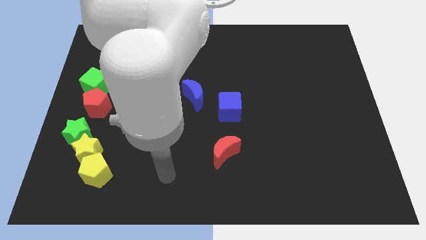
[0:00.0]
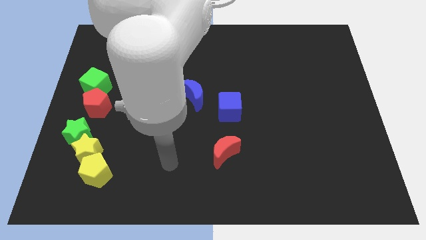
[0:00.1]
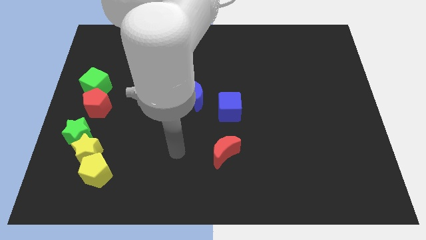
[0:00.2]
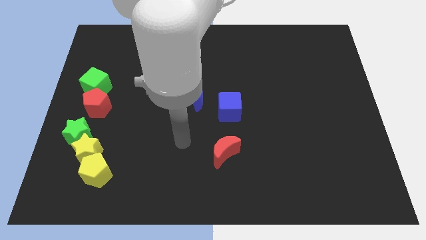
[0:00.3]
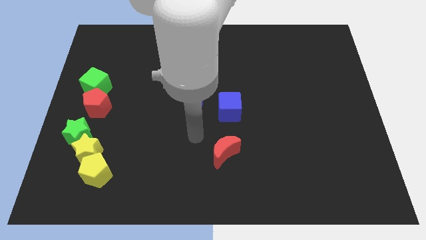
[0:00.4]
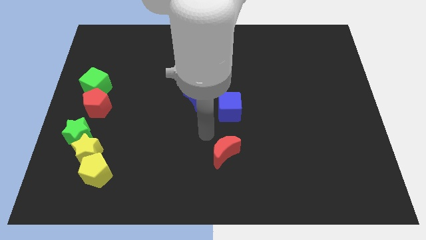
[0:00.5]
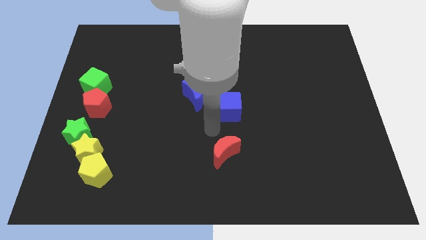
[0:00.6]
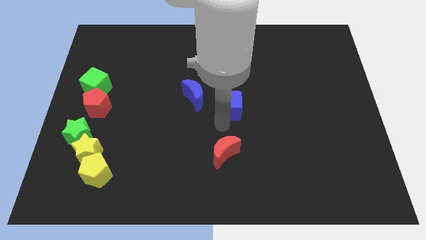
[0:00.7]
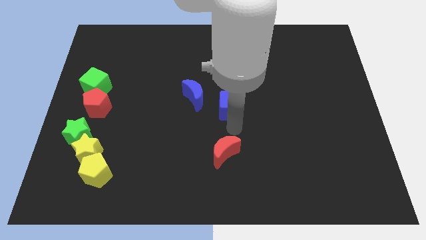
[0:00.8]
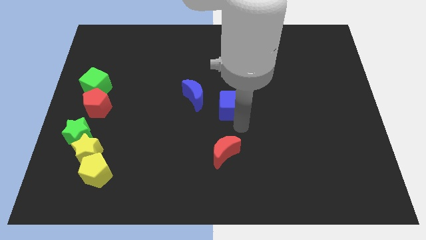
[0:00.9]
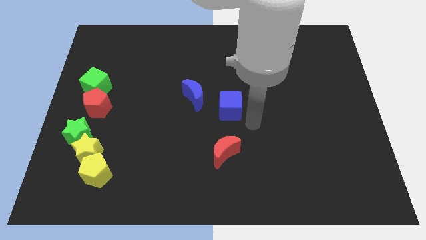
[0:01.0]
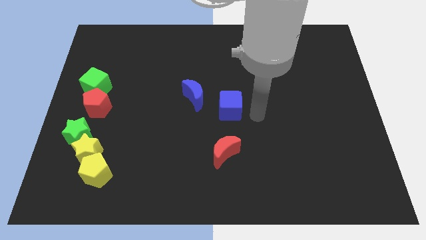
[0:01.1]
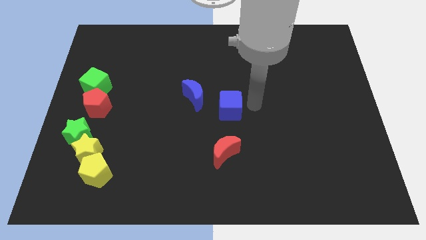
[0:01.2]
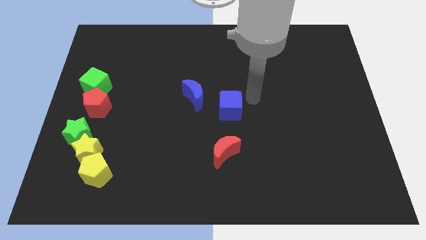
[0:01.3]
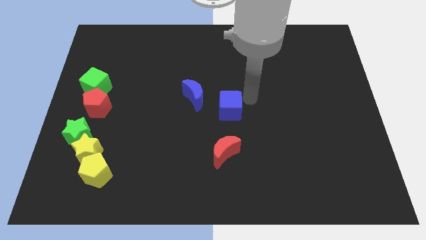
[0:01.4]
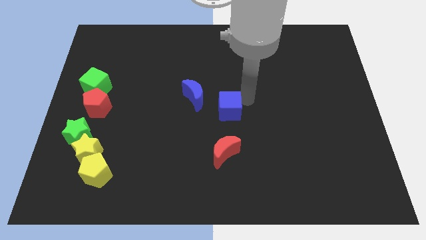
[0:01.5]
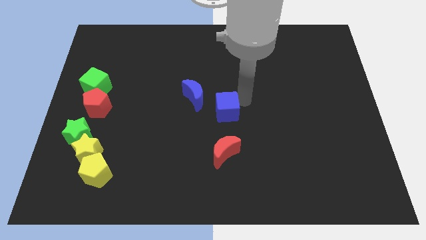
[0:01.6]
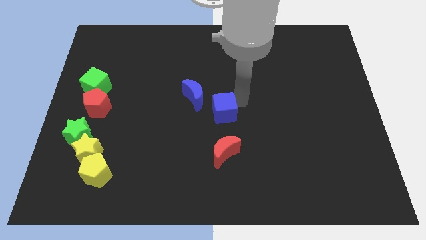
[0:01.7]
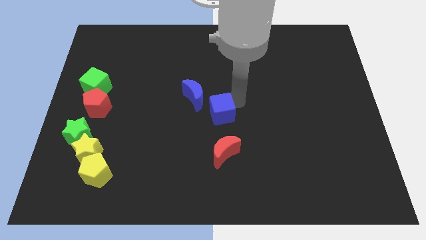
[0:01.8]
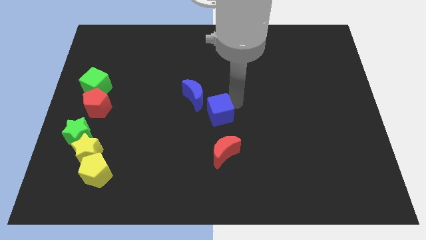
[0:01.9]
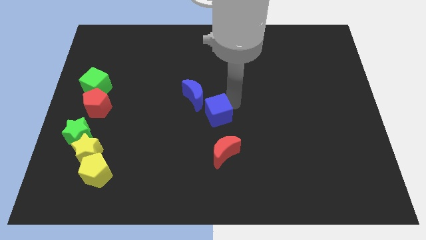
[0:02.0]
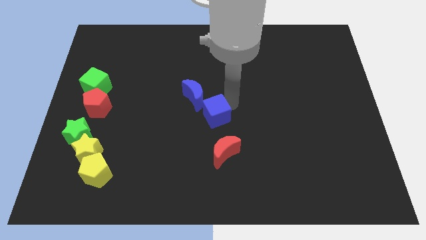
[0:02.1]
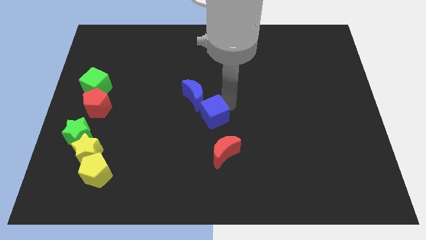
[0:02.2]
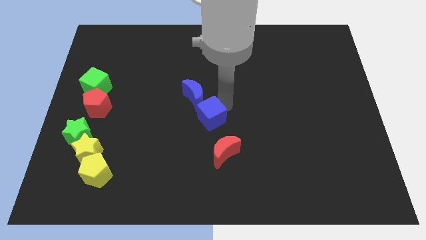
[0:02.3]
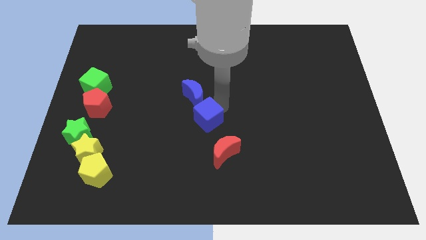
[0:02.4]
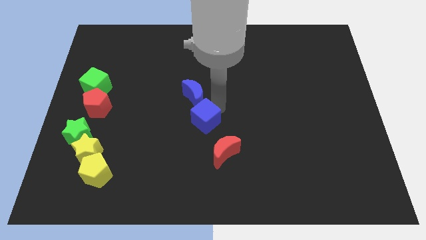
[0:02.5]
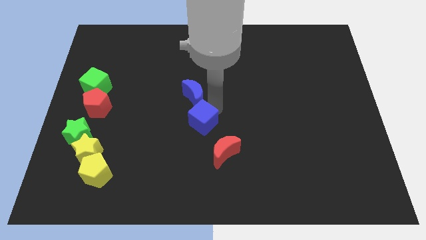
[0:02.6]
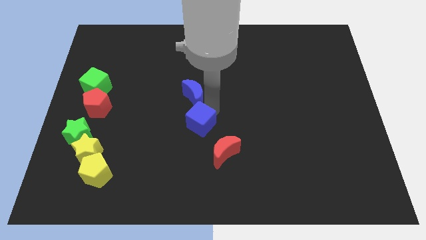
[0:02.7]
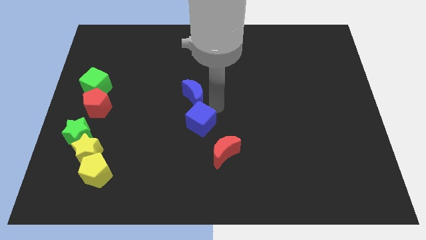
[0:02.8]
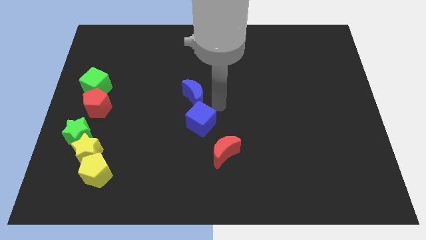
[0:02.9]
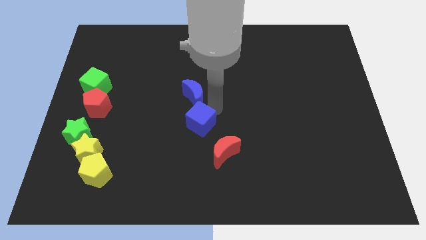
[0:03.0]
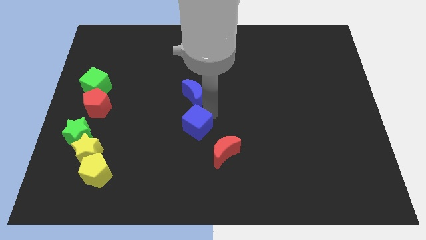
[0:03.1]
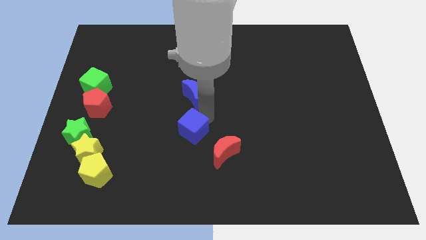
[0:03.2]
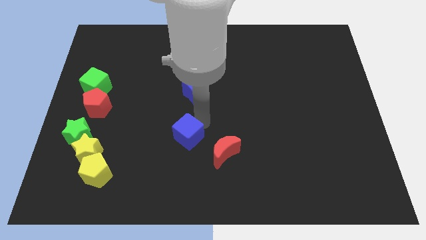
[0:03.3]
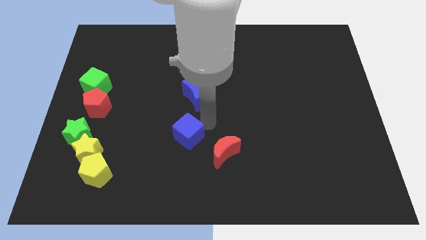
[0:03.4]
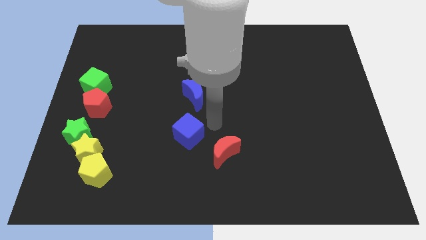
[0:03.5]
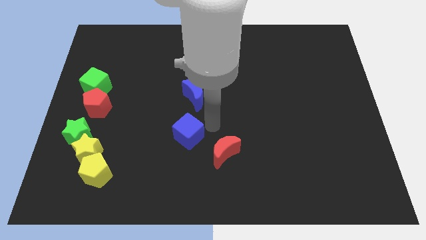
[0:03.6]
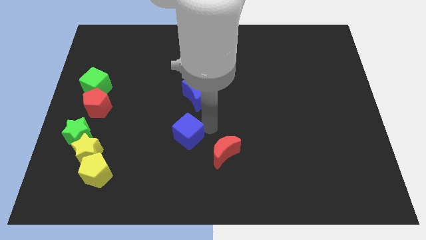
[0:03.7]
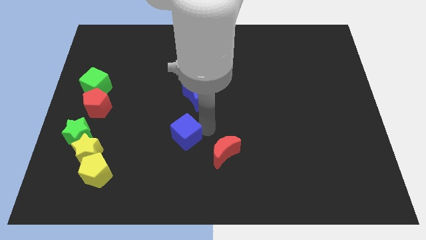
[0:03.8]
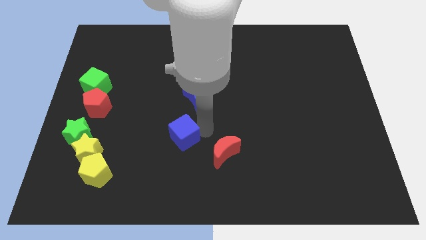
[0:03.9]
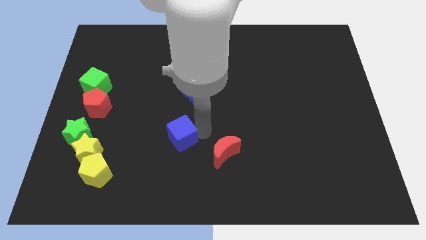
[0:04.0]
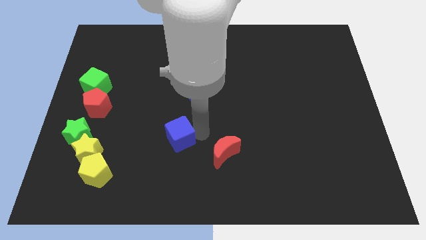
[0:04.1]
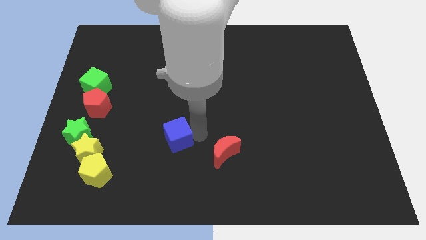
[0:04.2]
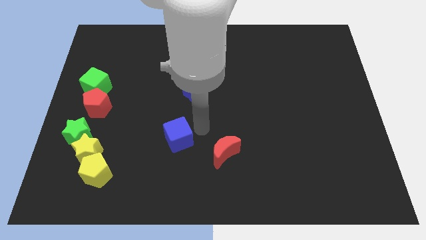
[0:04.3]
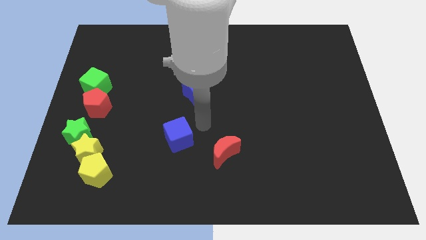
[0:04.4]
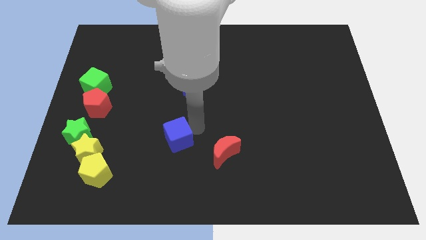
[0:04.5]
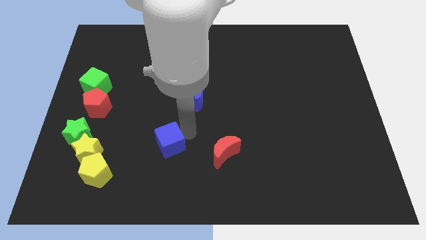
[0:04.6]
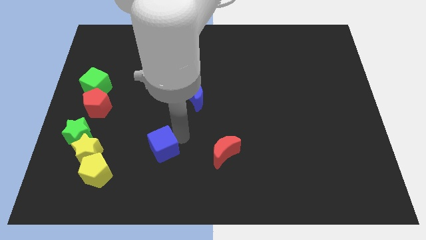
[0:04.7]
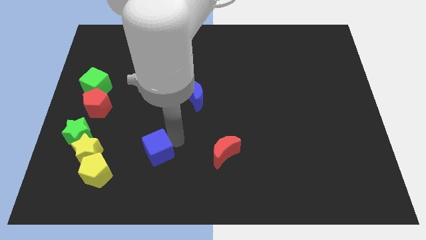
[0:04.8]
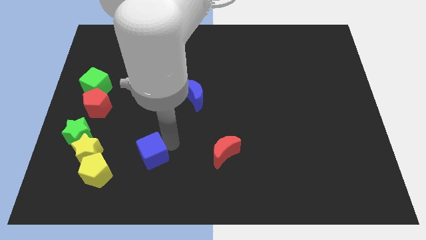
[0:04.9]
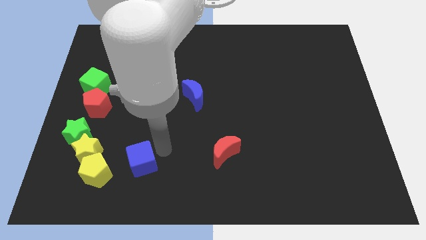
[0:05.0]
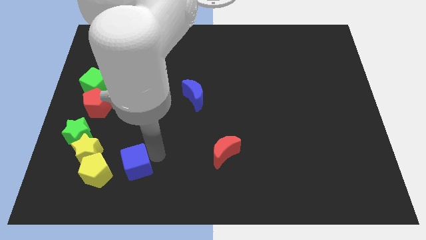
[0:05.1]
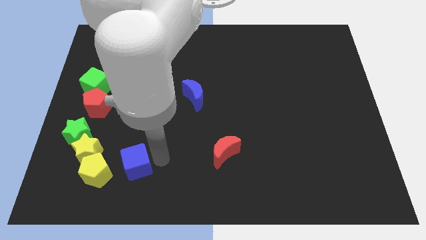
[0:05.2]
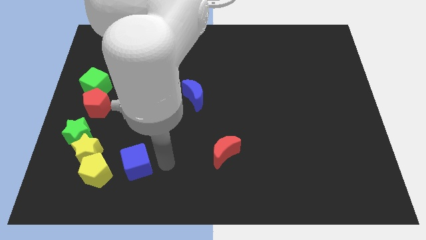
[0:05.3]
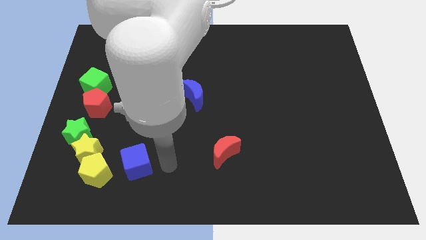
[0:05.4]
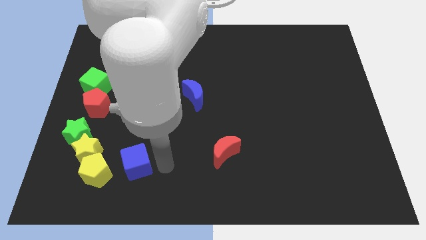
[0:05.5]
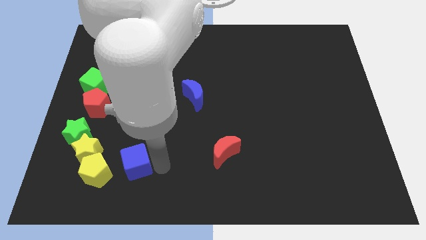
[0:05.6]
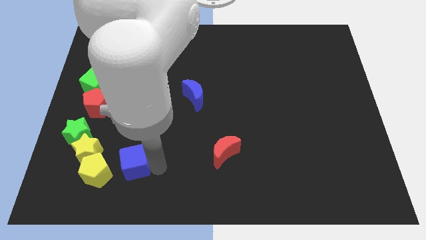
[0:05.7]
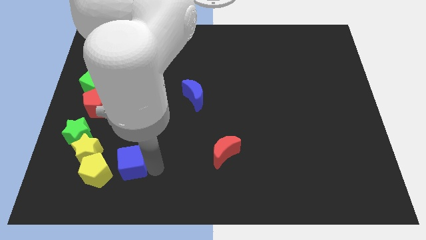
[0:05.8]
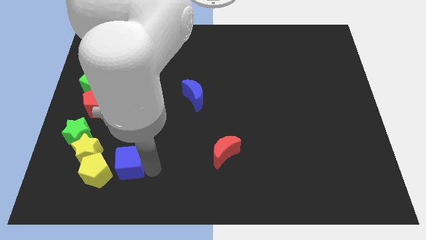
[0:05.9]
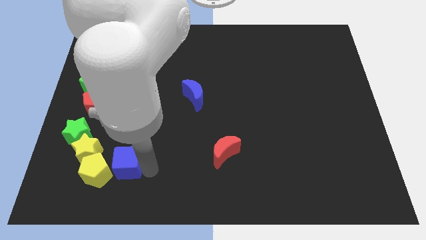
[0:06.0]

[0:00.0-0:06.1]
move the blue cube close to the yellow pentagon

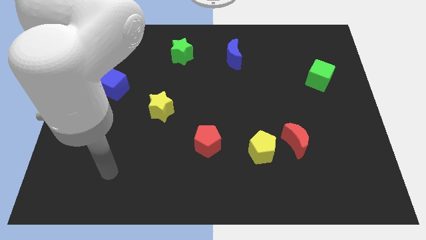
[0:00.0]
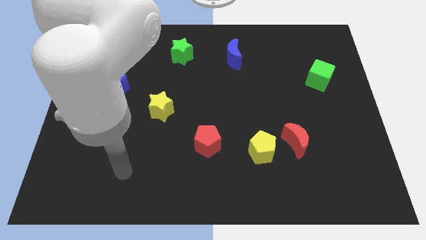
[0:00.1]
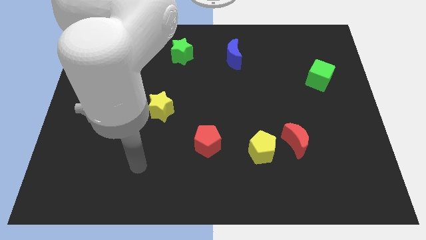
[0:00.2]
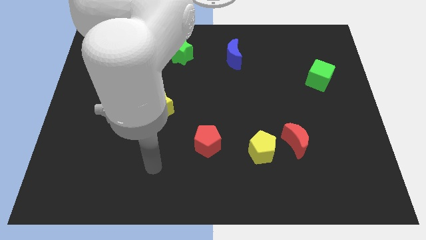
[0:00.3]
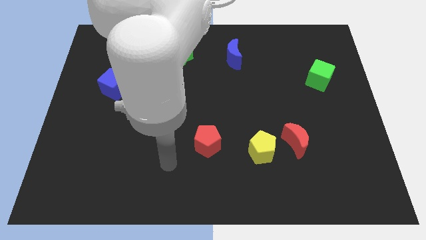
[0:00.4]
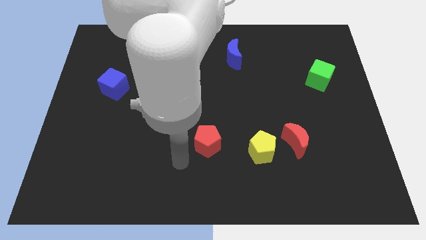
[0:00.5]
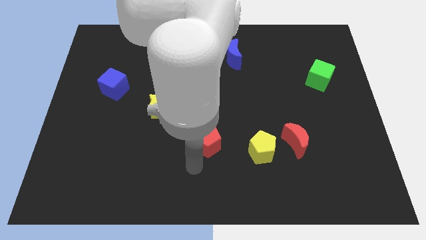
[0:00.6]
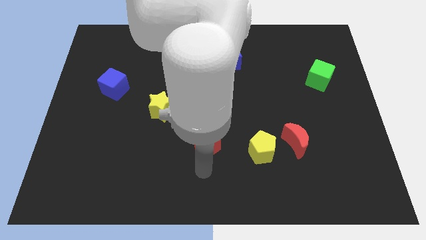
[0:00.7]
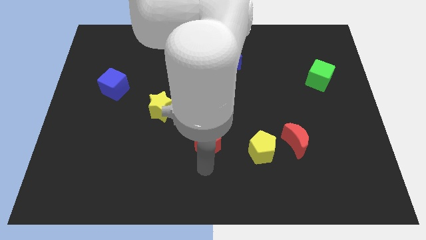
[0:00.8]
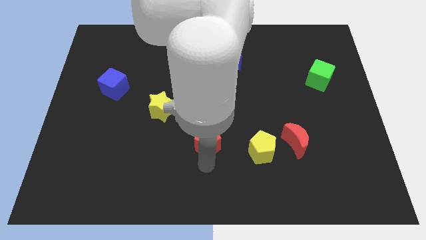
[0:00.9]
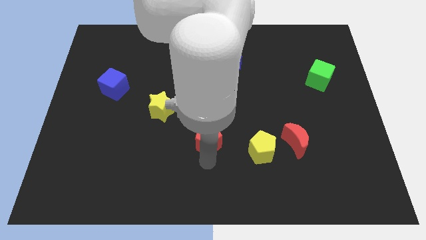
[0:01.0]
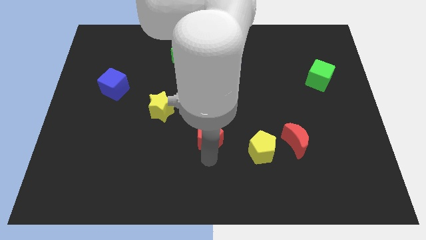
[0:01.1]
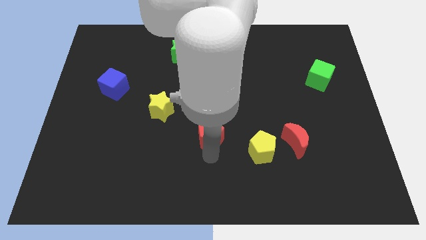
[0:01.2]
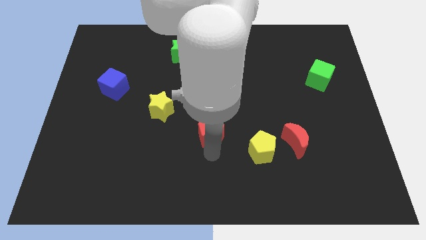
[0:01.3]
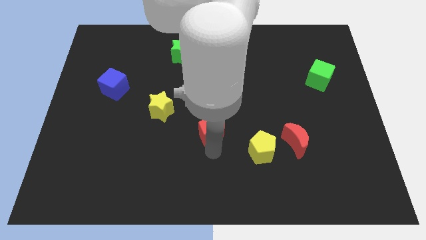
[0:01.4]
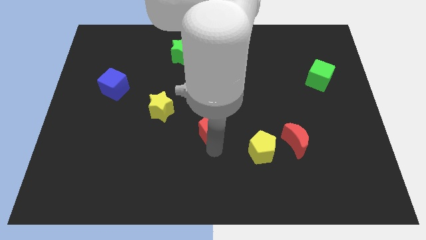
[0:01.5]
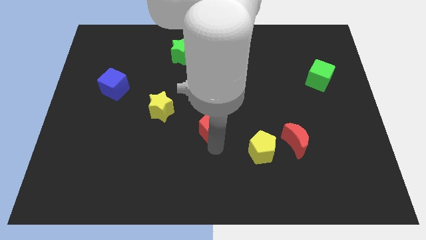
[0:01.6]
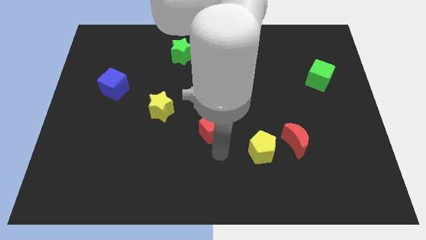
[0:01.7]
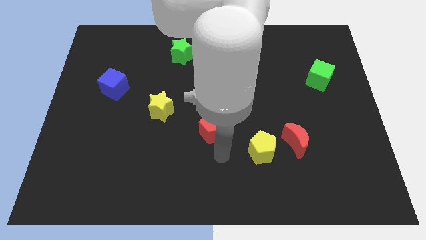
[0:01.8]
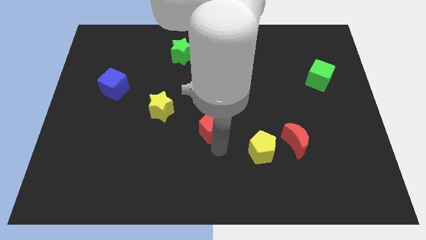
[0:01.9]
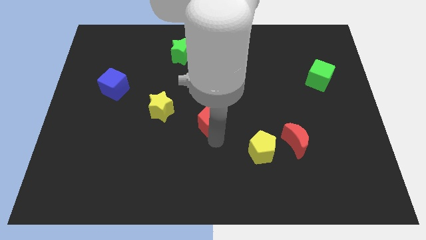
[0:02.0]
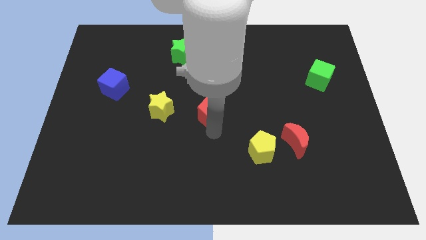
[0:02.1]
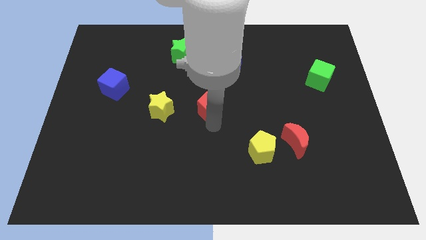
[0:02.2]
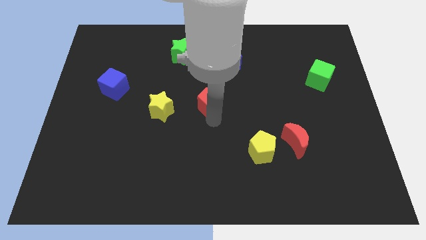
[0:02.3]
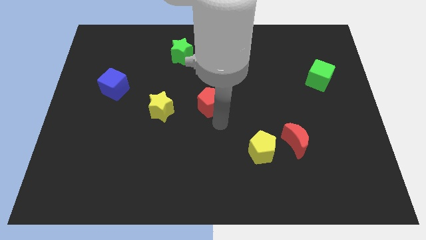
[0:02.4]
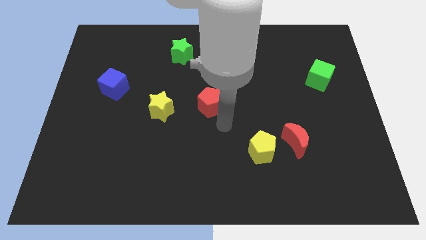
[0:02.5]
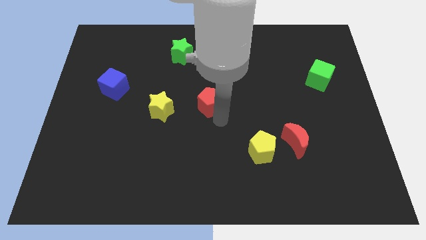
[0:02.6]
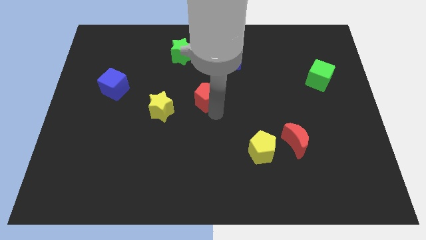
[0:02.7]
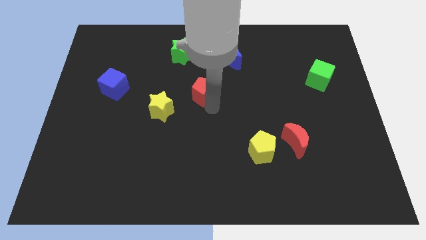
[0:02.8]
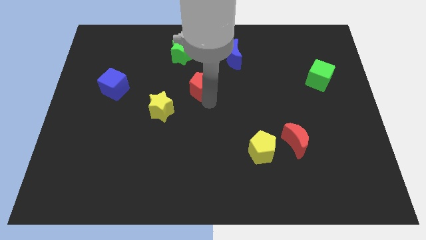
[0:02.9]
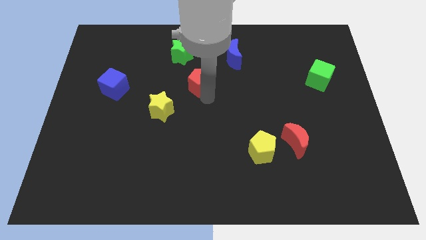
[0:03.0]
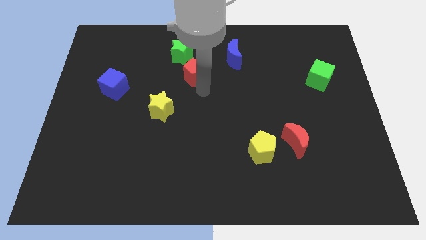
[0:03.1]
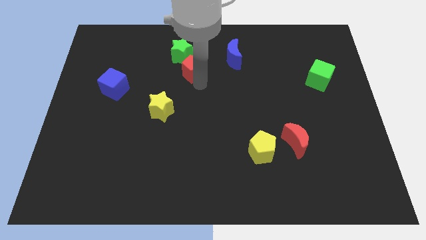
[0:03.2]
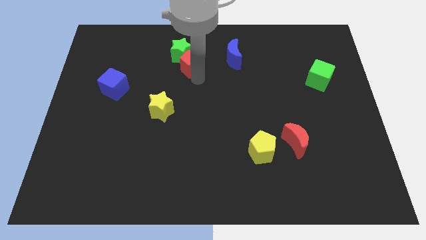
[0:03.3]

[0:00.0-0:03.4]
put the red pentagon towards the green star
